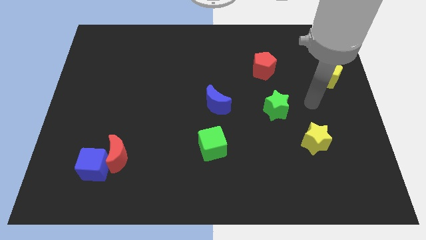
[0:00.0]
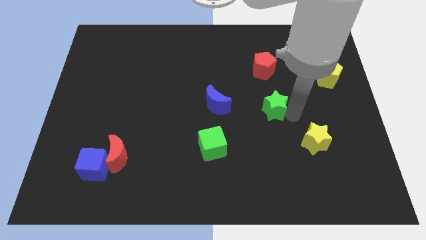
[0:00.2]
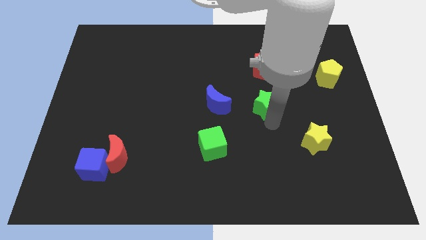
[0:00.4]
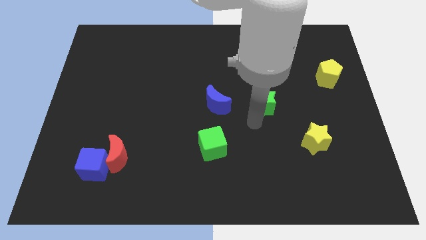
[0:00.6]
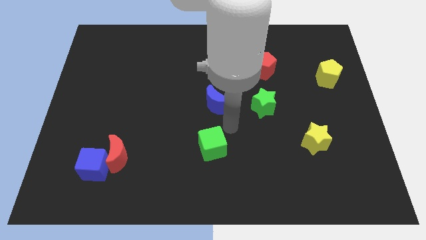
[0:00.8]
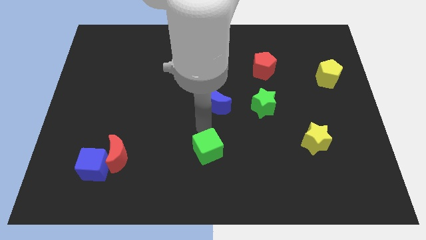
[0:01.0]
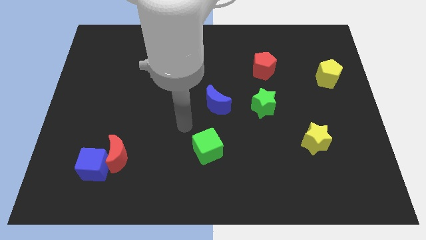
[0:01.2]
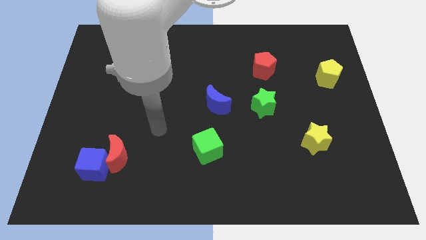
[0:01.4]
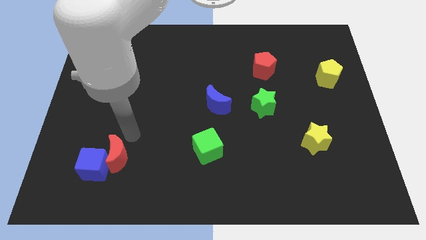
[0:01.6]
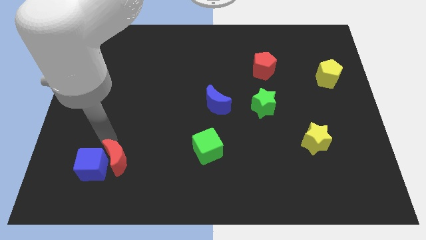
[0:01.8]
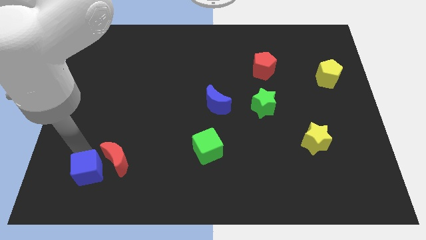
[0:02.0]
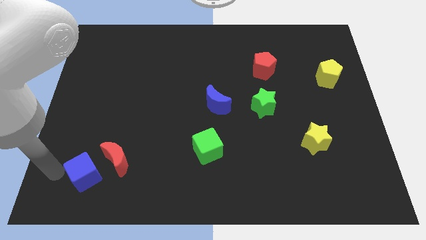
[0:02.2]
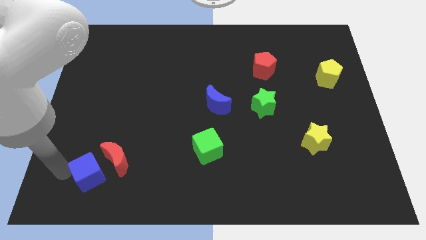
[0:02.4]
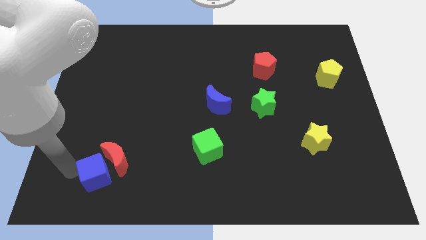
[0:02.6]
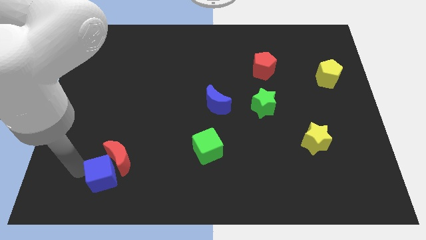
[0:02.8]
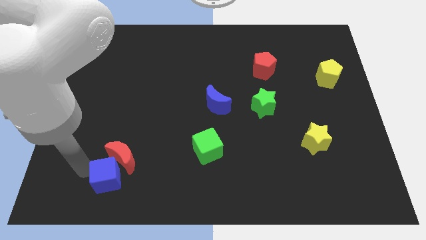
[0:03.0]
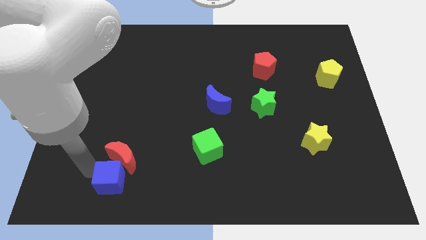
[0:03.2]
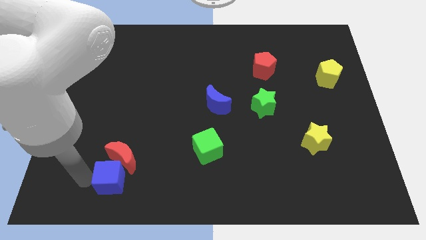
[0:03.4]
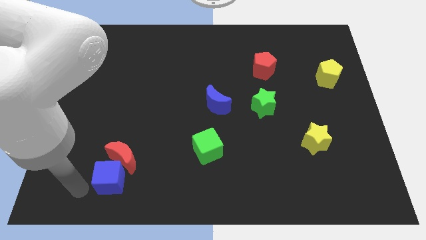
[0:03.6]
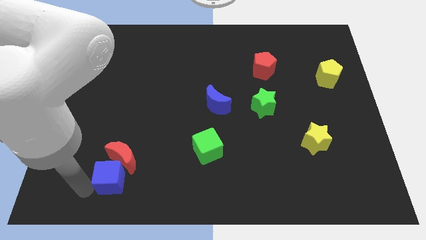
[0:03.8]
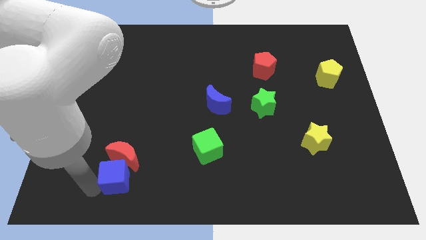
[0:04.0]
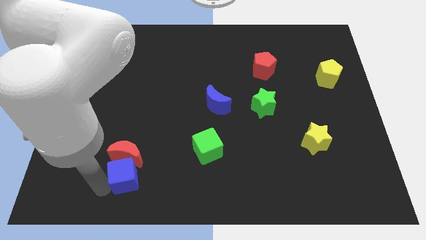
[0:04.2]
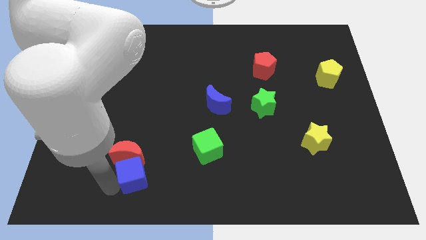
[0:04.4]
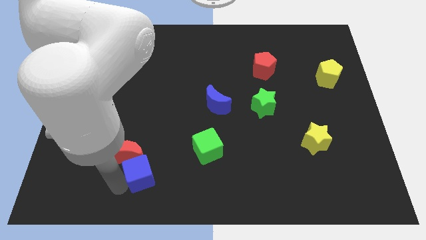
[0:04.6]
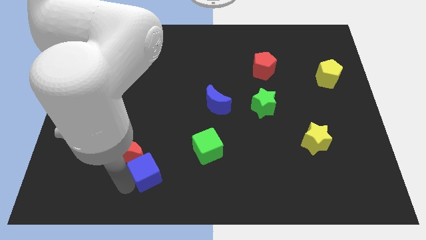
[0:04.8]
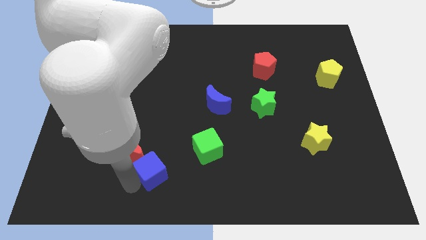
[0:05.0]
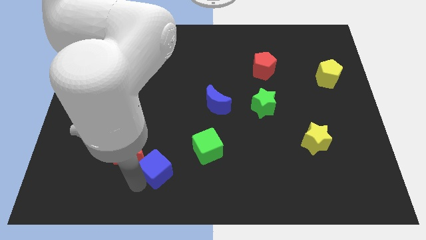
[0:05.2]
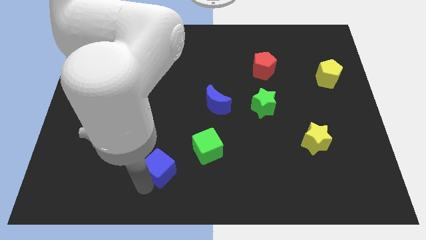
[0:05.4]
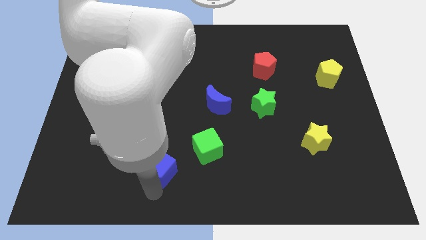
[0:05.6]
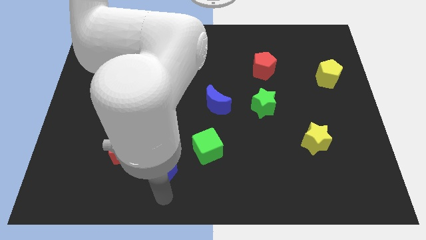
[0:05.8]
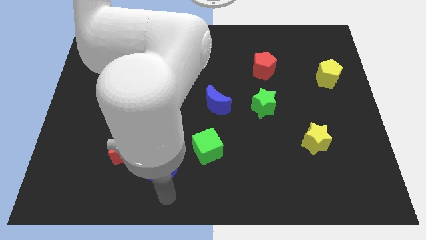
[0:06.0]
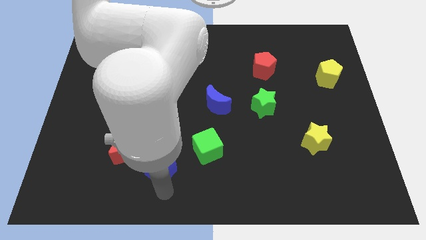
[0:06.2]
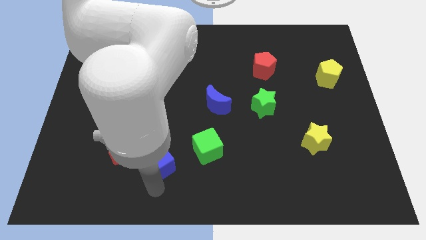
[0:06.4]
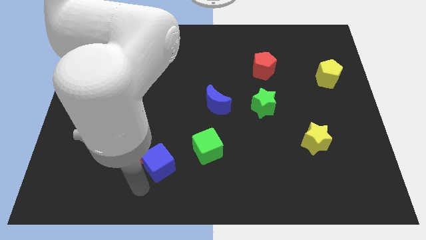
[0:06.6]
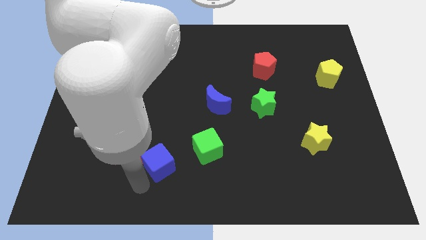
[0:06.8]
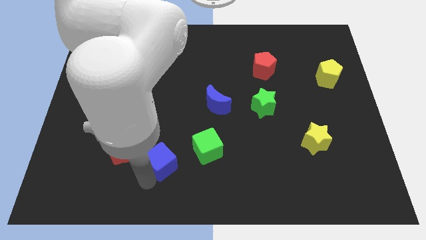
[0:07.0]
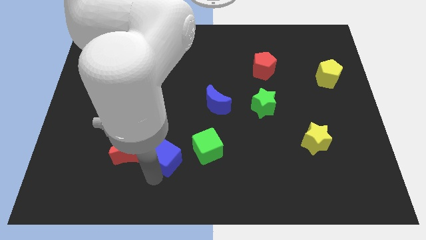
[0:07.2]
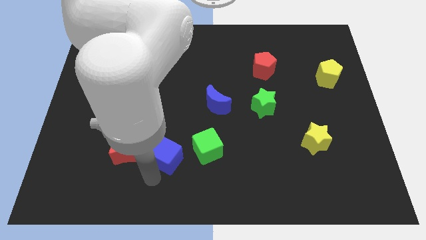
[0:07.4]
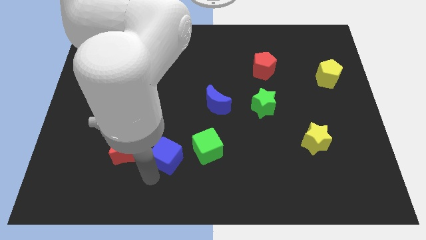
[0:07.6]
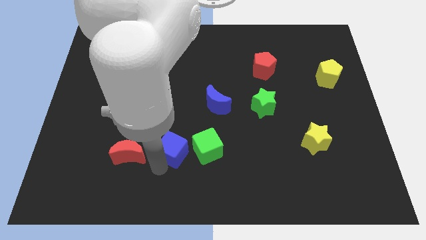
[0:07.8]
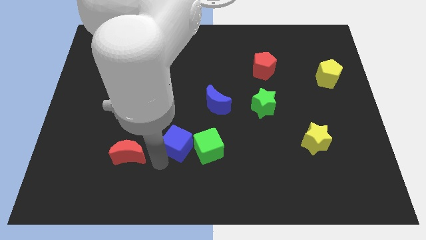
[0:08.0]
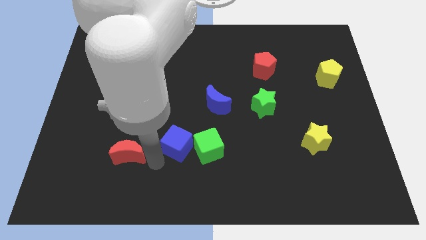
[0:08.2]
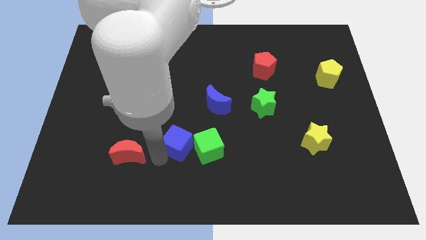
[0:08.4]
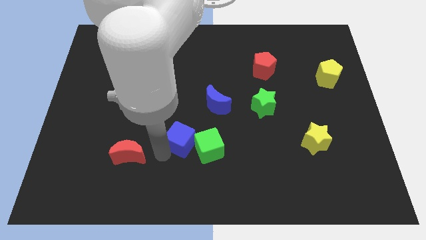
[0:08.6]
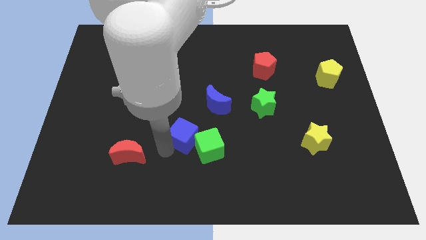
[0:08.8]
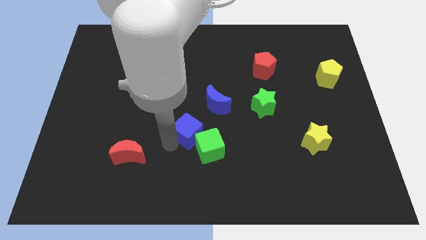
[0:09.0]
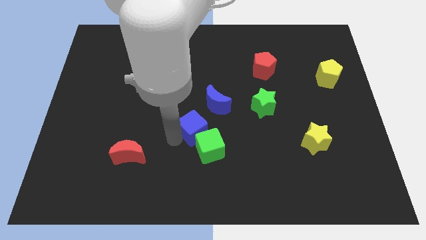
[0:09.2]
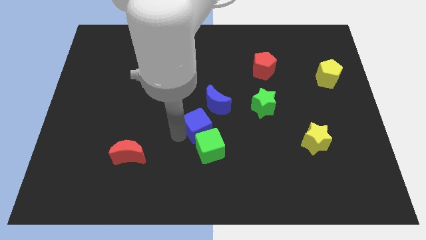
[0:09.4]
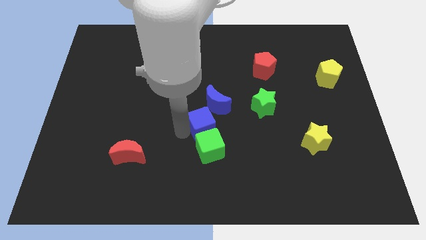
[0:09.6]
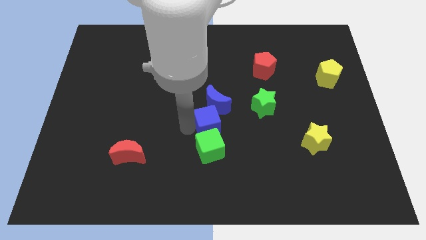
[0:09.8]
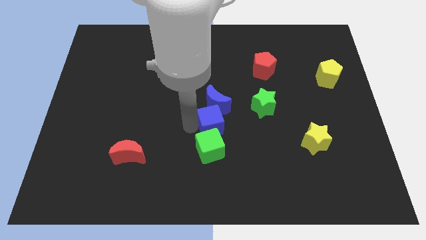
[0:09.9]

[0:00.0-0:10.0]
slide the blue cube diagonally down and to the right of the blue moon

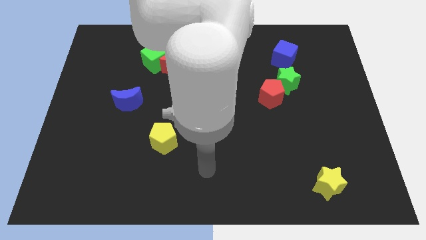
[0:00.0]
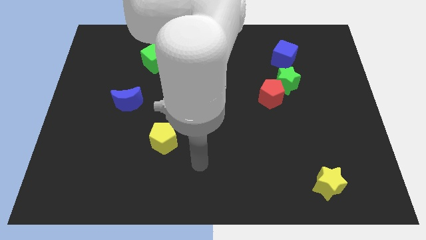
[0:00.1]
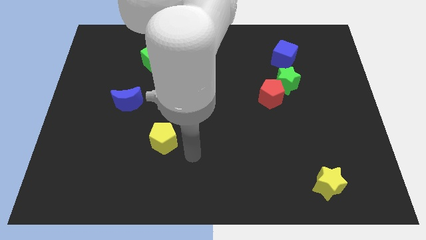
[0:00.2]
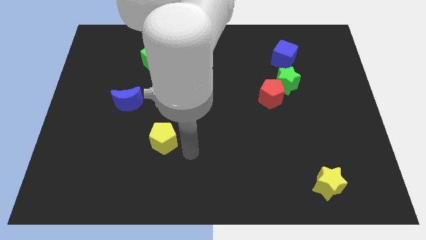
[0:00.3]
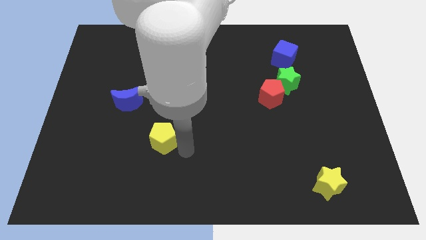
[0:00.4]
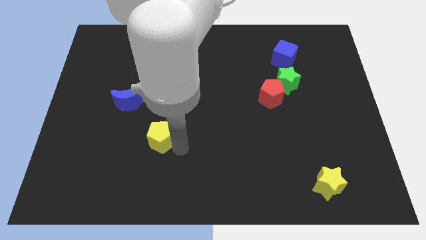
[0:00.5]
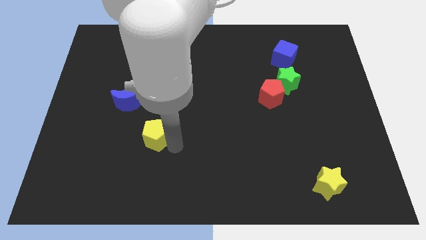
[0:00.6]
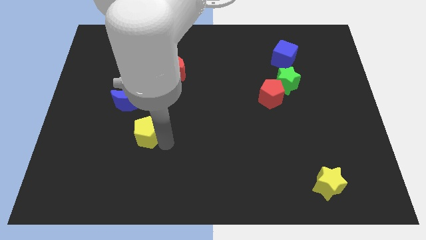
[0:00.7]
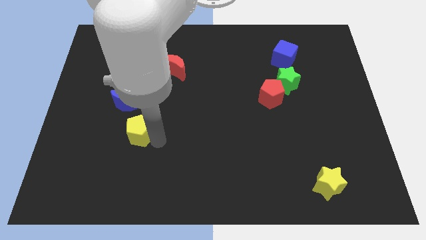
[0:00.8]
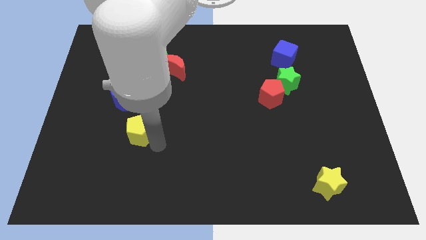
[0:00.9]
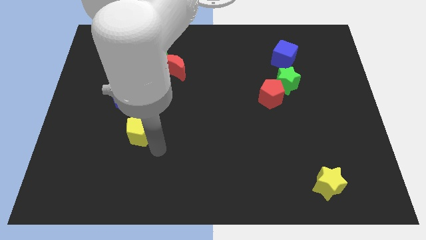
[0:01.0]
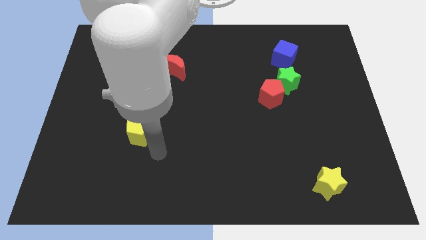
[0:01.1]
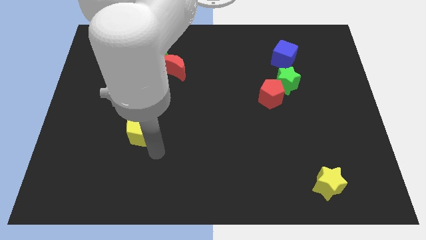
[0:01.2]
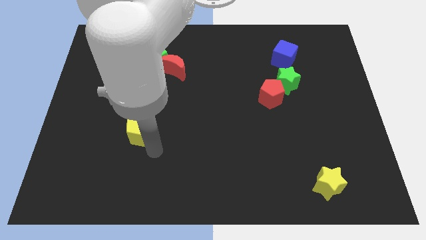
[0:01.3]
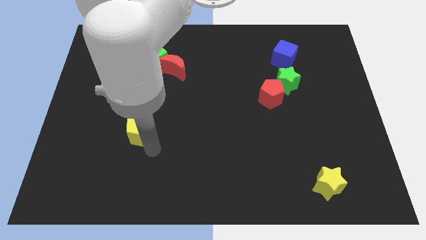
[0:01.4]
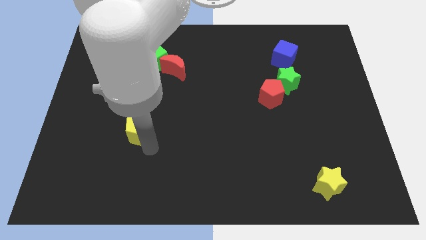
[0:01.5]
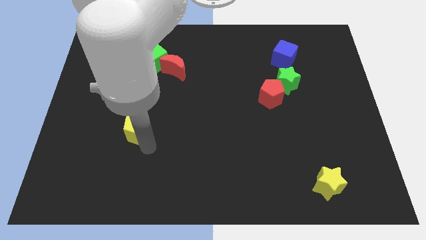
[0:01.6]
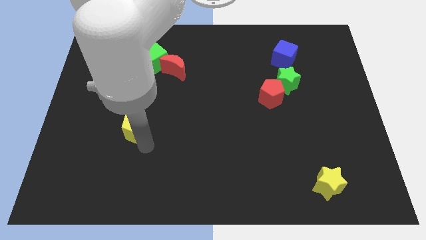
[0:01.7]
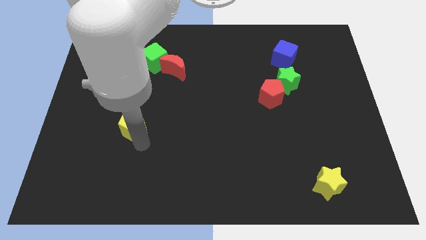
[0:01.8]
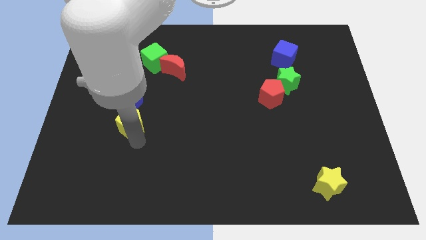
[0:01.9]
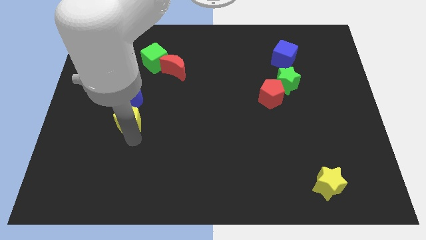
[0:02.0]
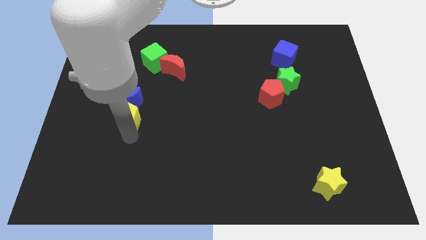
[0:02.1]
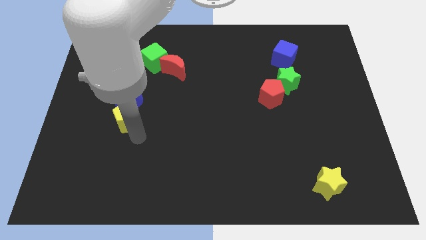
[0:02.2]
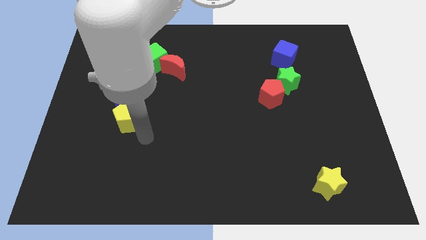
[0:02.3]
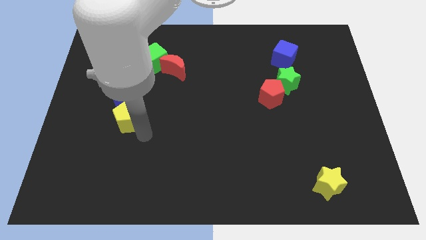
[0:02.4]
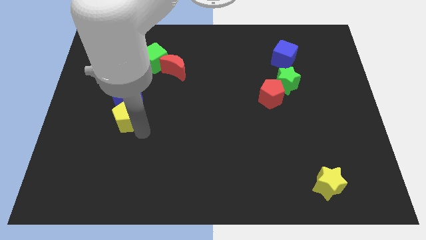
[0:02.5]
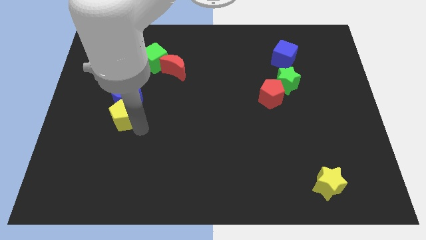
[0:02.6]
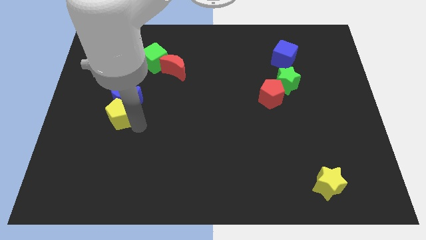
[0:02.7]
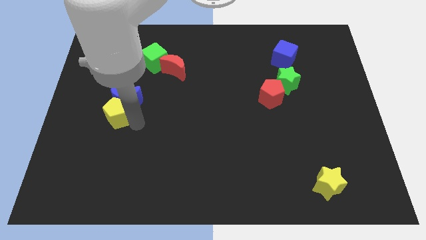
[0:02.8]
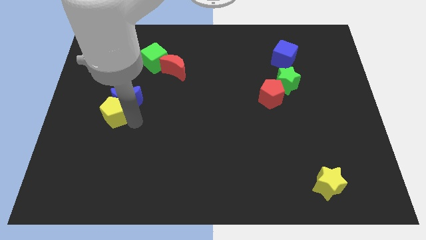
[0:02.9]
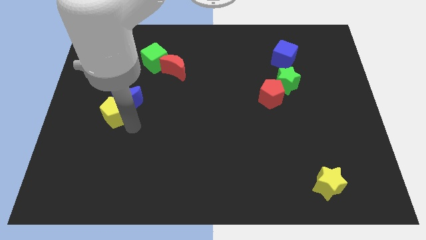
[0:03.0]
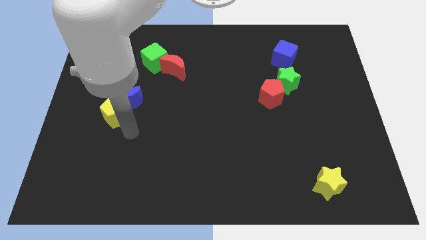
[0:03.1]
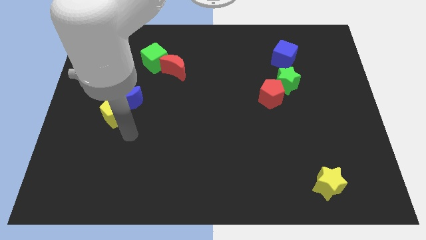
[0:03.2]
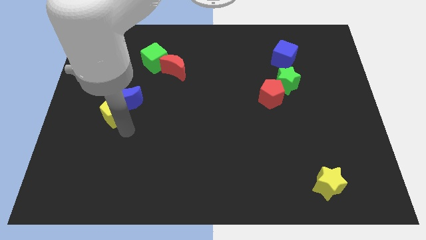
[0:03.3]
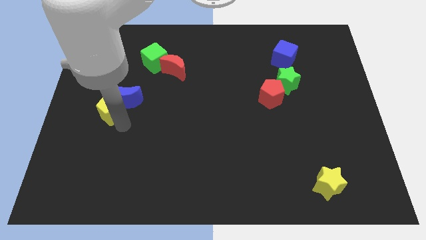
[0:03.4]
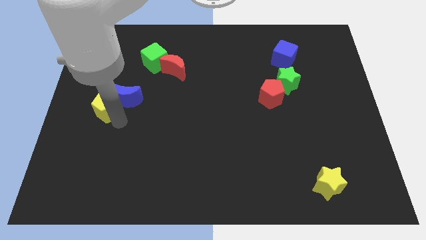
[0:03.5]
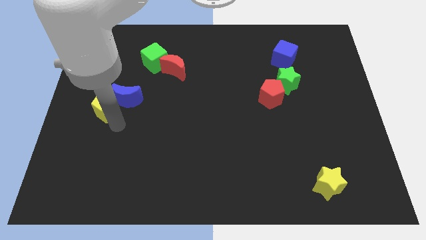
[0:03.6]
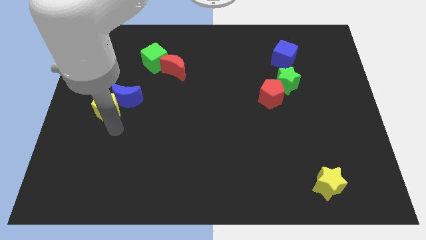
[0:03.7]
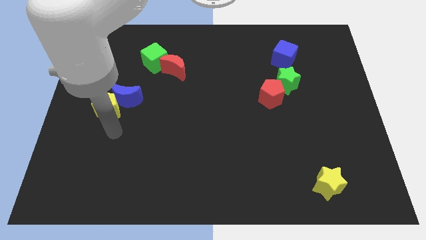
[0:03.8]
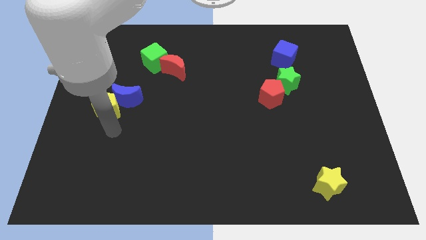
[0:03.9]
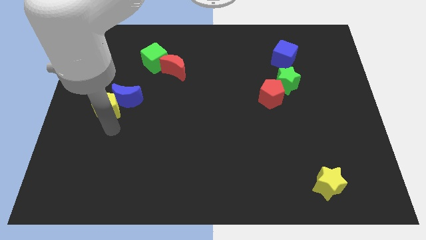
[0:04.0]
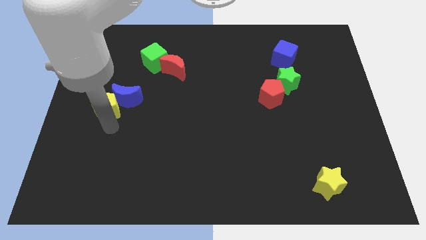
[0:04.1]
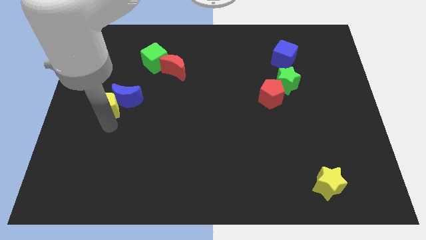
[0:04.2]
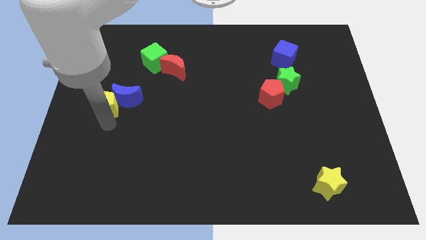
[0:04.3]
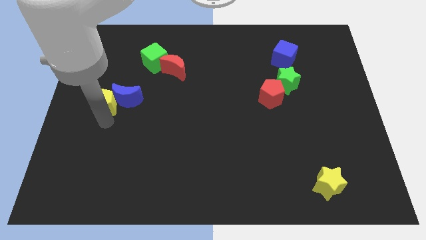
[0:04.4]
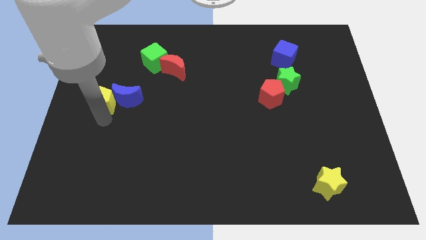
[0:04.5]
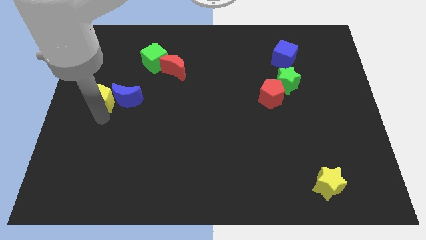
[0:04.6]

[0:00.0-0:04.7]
put the yellow pentagon diagonally up and to the left of the blue moon
